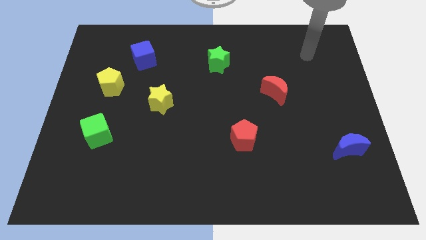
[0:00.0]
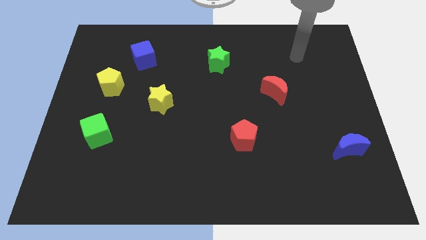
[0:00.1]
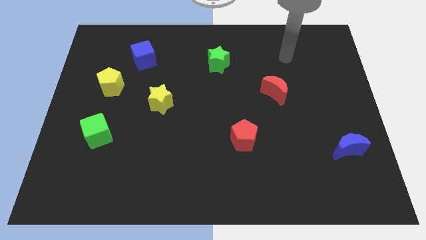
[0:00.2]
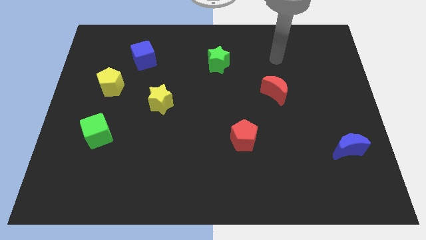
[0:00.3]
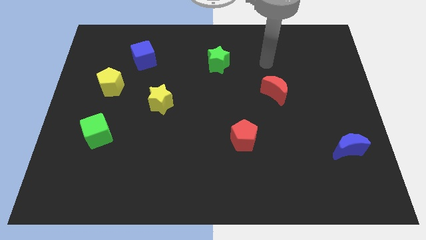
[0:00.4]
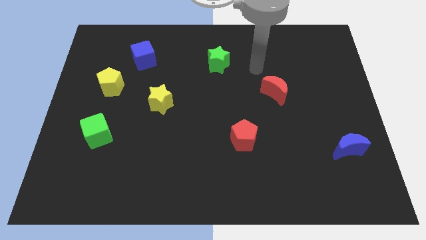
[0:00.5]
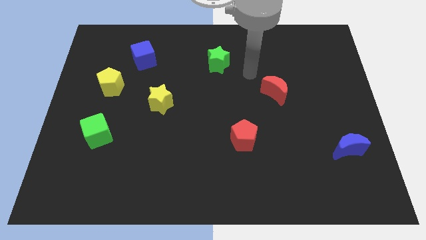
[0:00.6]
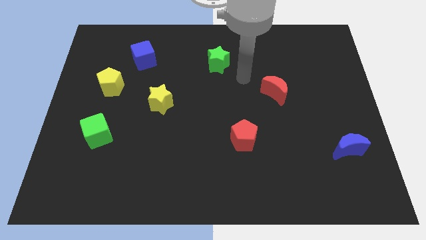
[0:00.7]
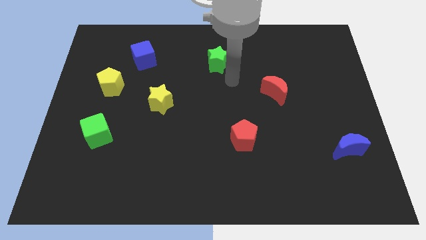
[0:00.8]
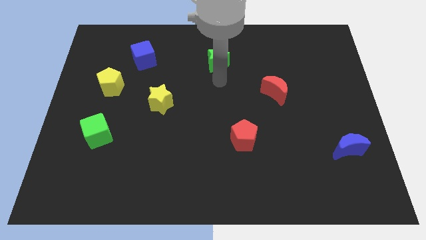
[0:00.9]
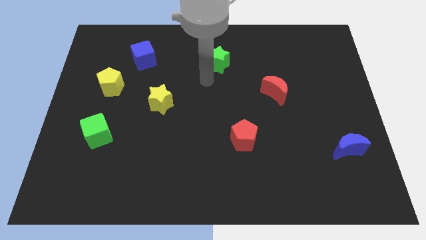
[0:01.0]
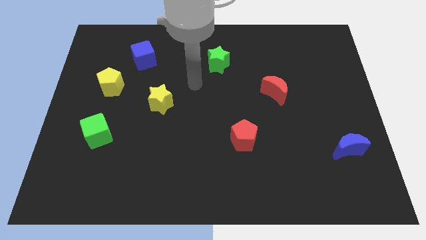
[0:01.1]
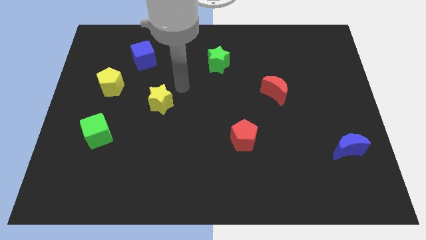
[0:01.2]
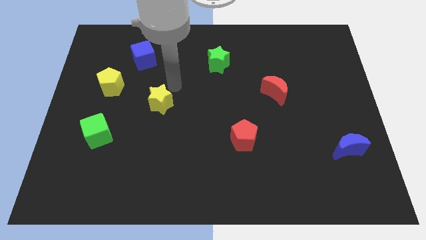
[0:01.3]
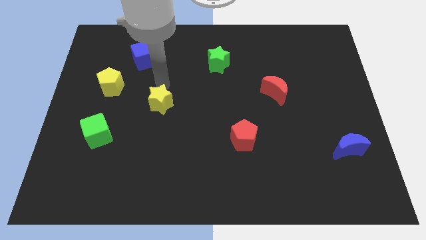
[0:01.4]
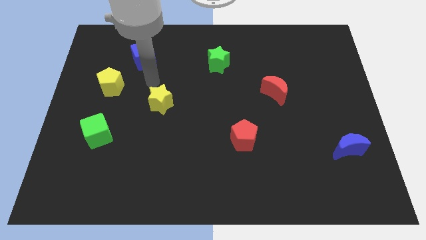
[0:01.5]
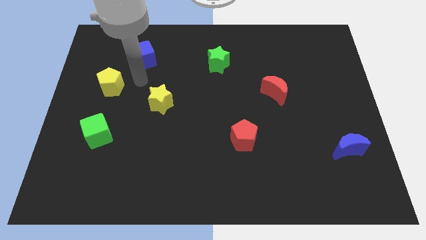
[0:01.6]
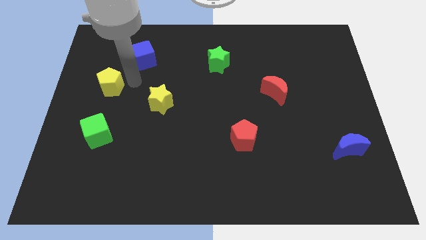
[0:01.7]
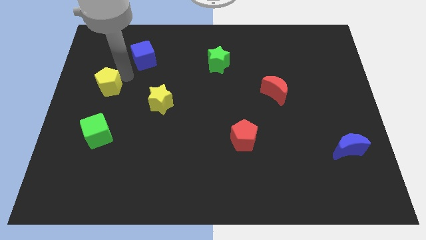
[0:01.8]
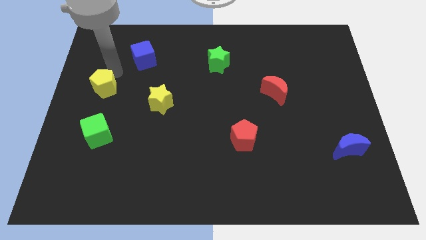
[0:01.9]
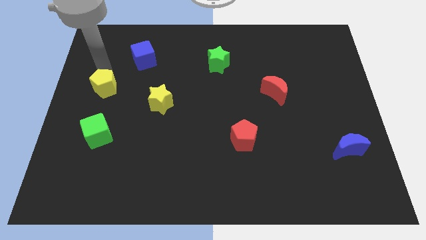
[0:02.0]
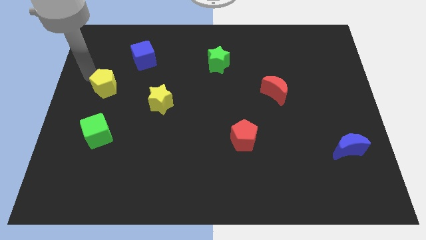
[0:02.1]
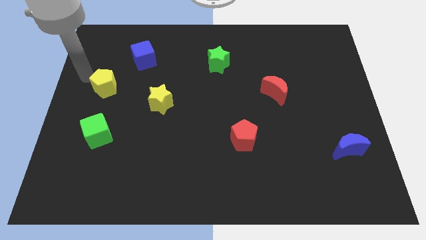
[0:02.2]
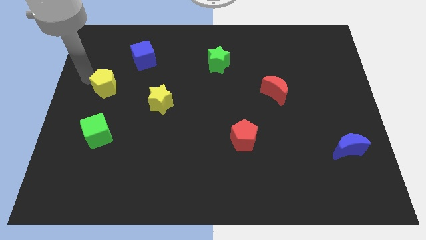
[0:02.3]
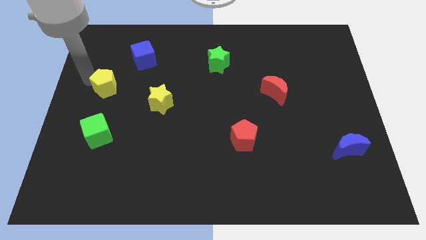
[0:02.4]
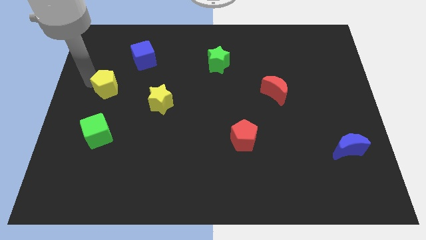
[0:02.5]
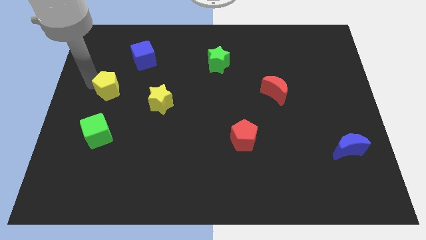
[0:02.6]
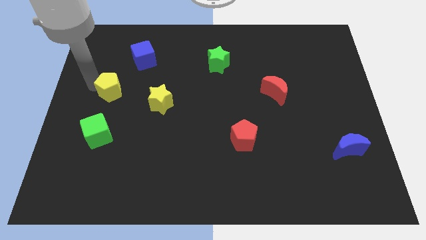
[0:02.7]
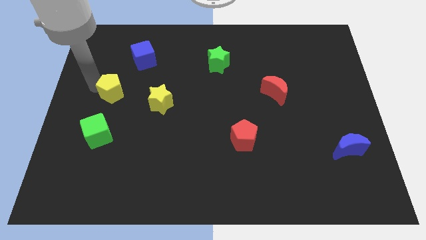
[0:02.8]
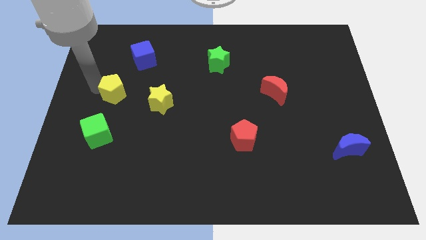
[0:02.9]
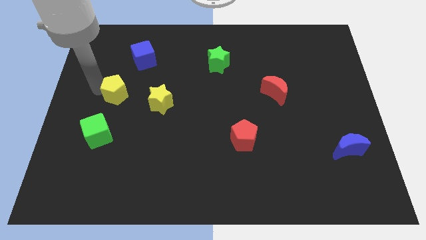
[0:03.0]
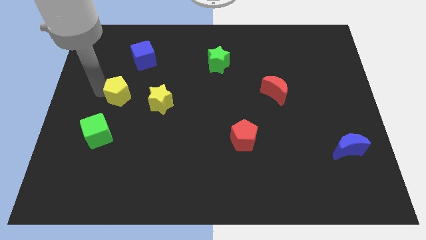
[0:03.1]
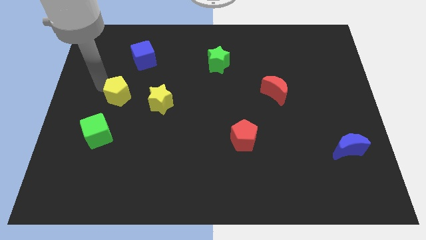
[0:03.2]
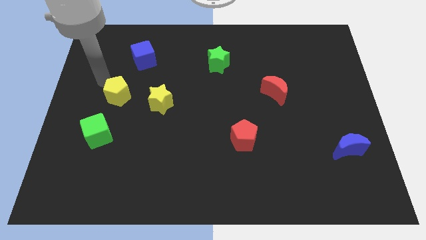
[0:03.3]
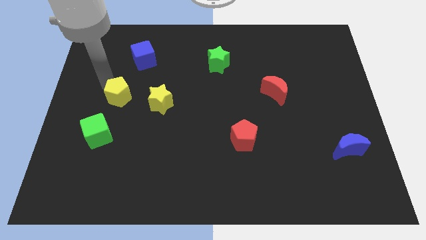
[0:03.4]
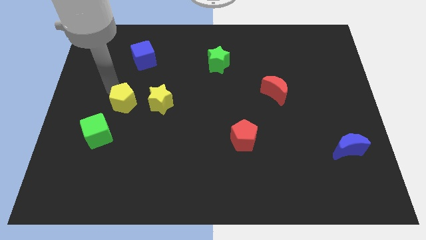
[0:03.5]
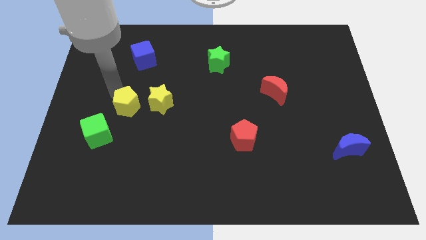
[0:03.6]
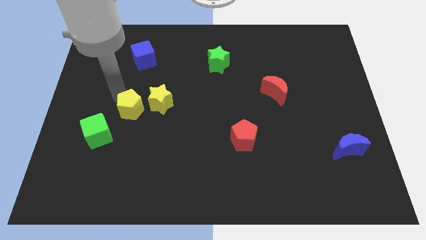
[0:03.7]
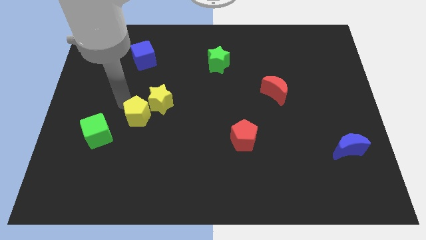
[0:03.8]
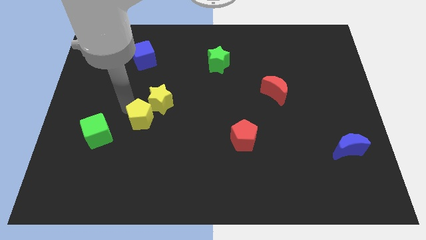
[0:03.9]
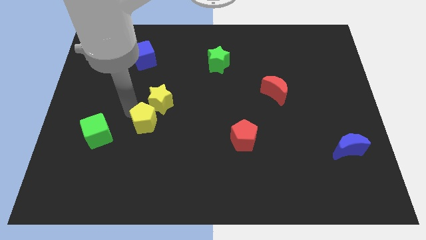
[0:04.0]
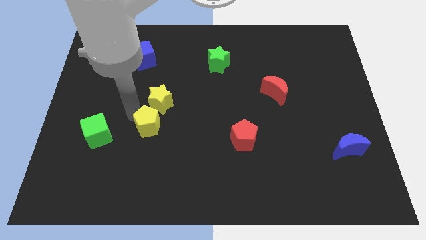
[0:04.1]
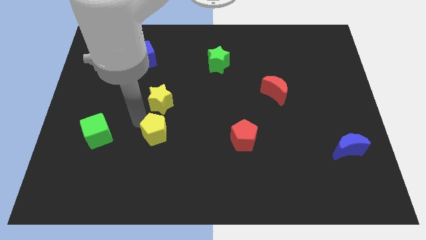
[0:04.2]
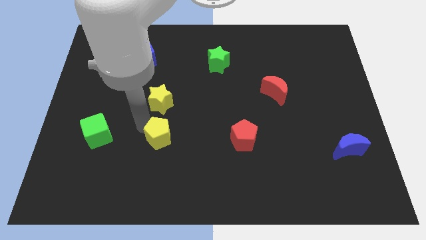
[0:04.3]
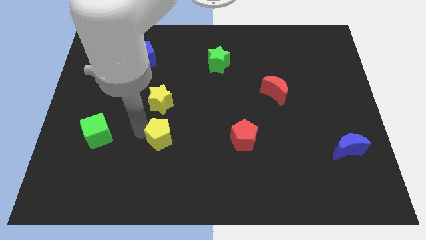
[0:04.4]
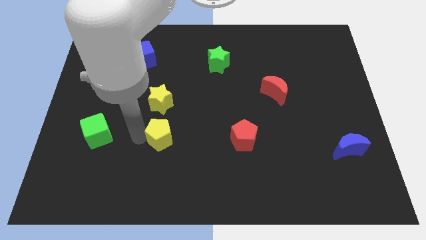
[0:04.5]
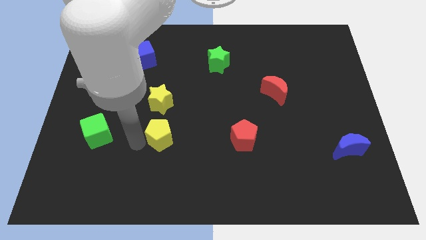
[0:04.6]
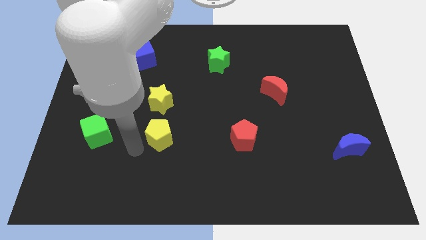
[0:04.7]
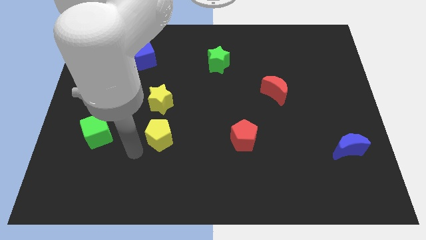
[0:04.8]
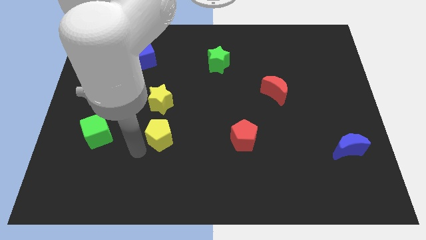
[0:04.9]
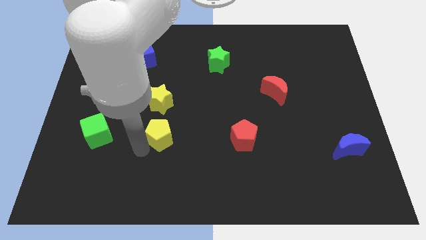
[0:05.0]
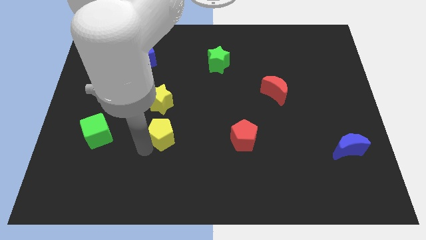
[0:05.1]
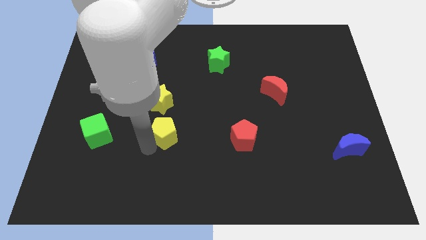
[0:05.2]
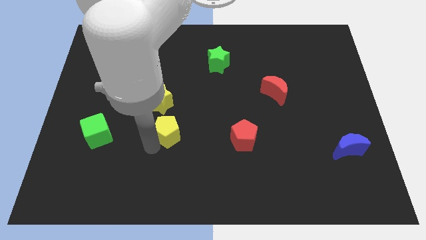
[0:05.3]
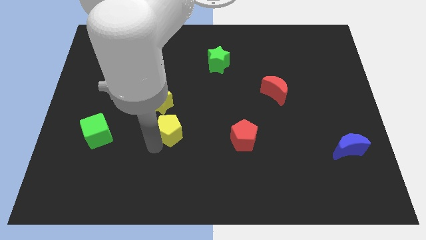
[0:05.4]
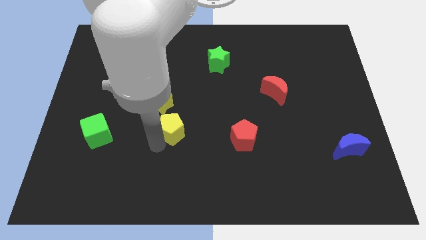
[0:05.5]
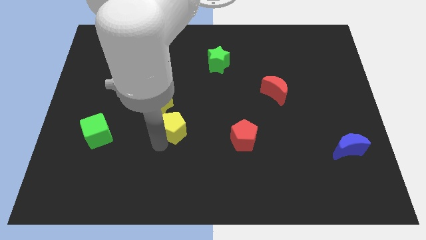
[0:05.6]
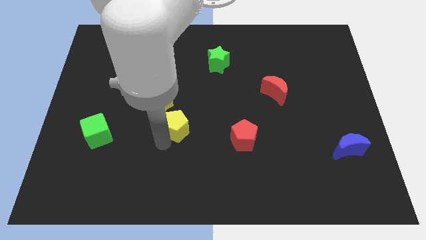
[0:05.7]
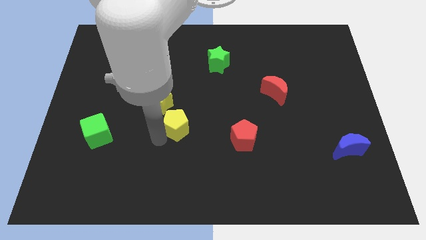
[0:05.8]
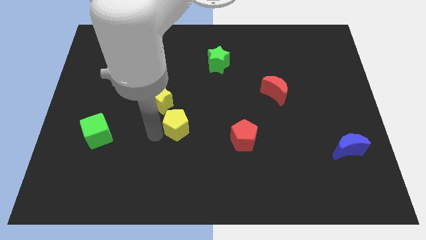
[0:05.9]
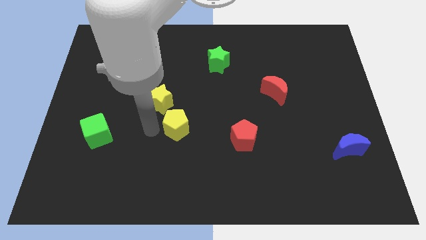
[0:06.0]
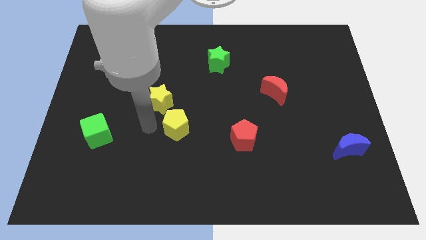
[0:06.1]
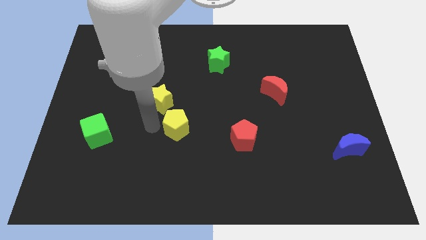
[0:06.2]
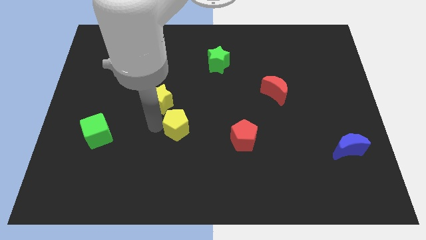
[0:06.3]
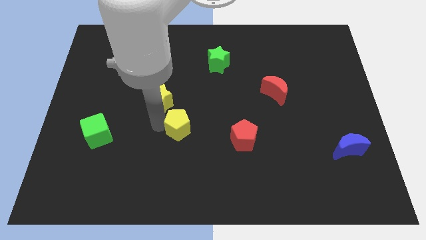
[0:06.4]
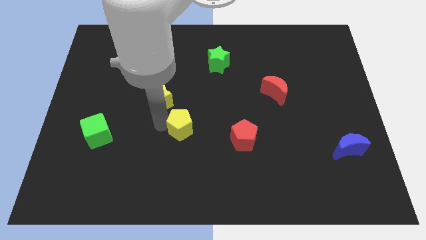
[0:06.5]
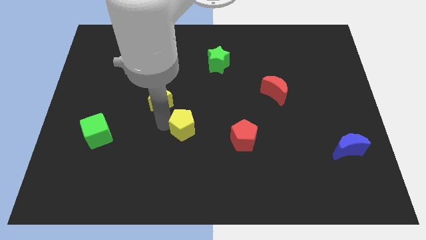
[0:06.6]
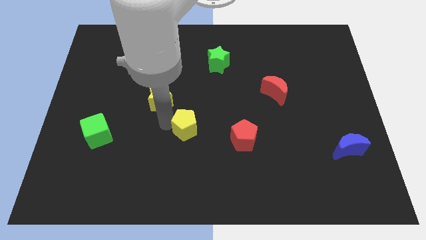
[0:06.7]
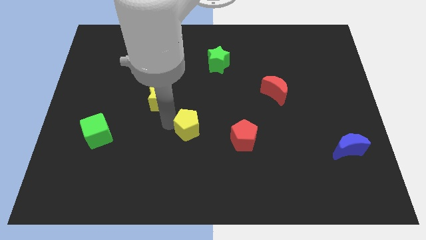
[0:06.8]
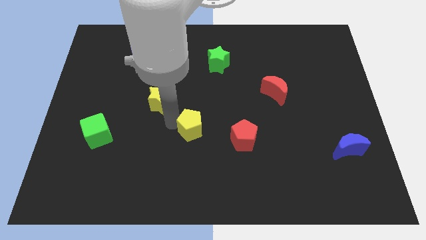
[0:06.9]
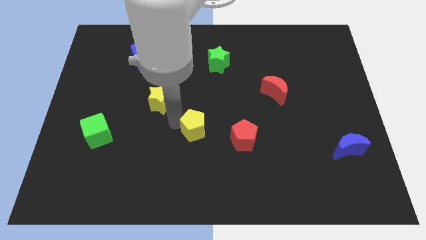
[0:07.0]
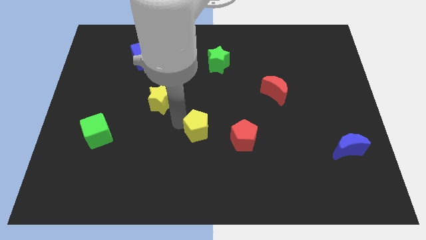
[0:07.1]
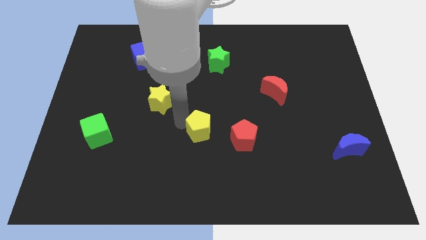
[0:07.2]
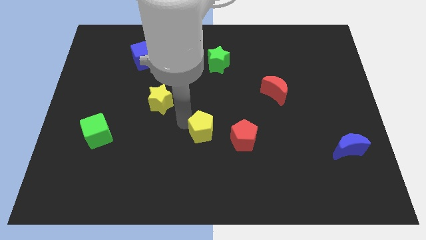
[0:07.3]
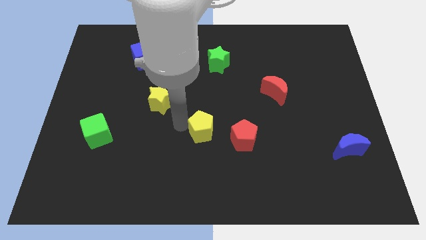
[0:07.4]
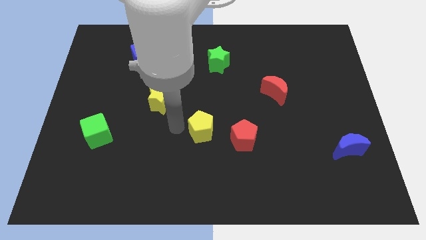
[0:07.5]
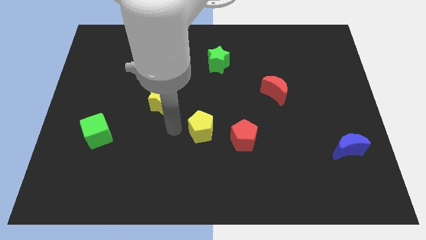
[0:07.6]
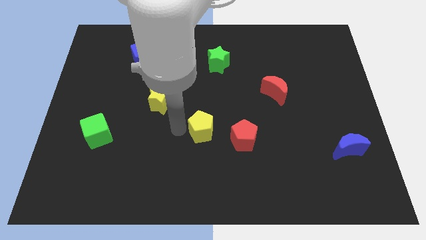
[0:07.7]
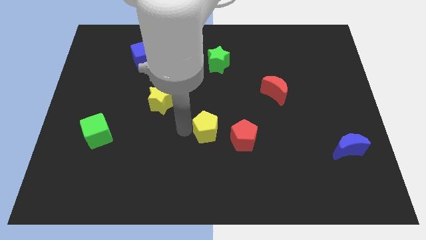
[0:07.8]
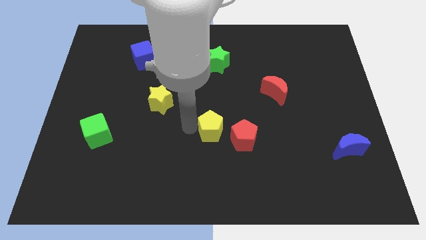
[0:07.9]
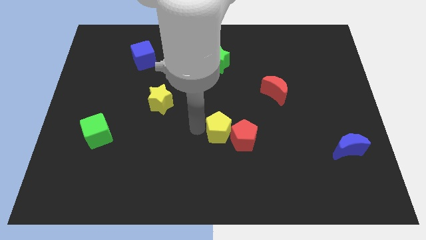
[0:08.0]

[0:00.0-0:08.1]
slide the yellow pentagon close to the red pentagon
